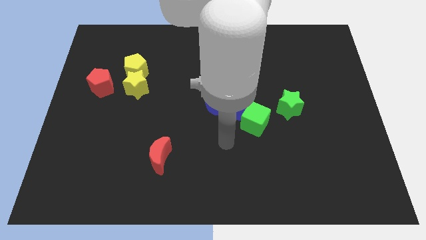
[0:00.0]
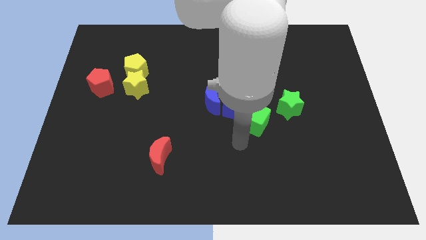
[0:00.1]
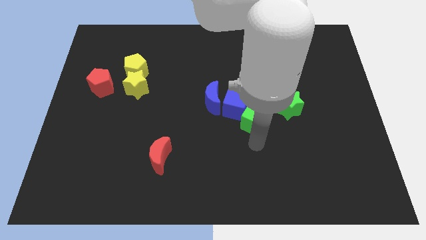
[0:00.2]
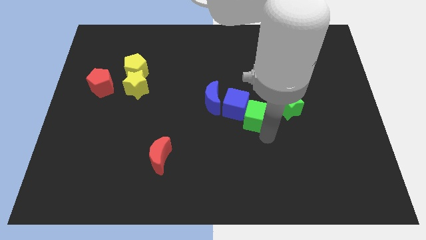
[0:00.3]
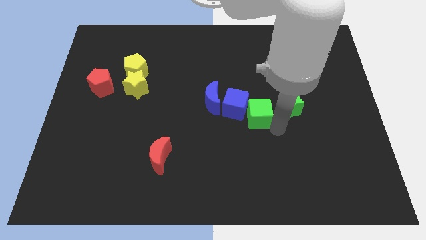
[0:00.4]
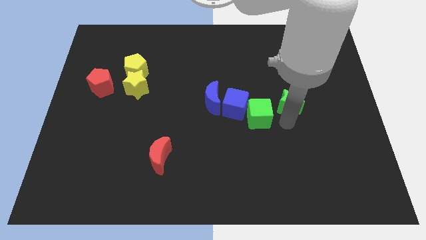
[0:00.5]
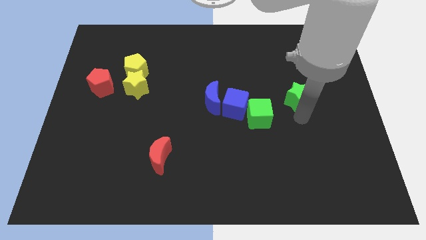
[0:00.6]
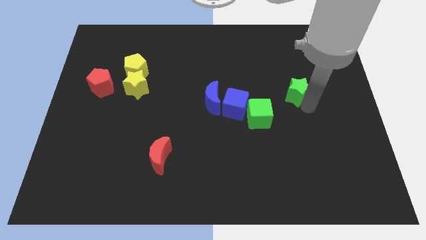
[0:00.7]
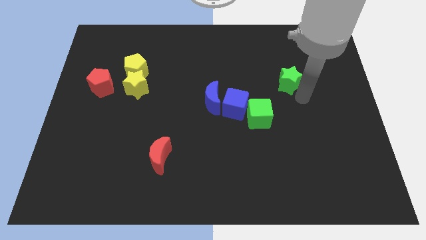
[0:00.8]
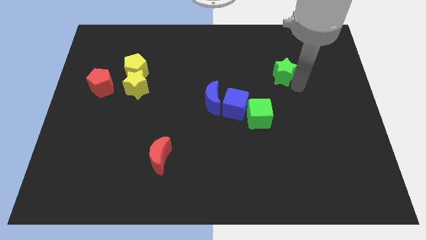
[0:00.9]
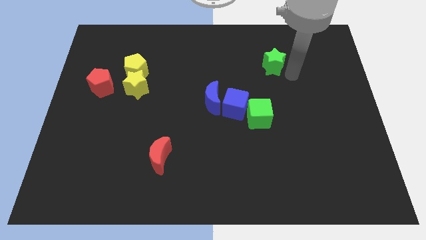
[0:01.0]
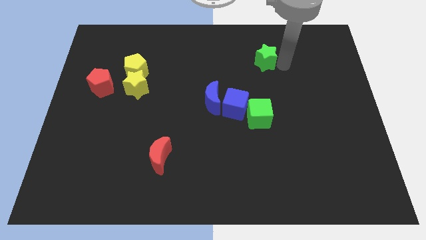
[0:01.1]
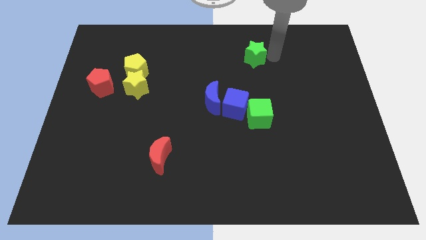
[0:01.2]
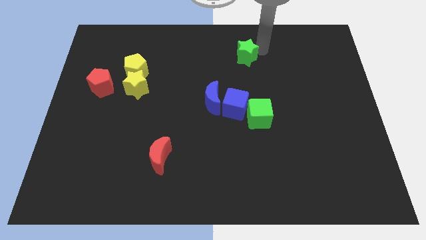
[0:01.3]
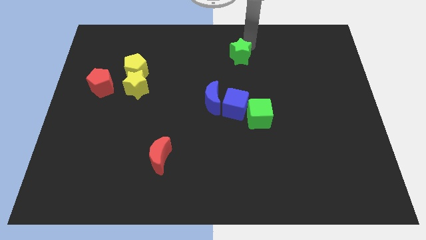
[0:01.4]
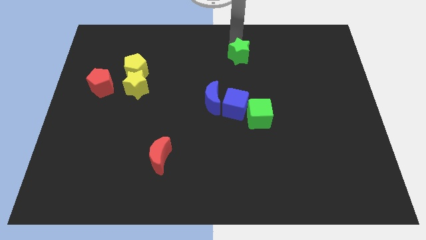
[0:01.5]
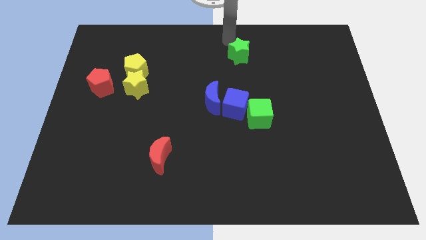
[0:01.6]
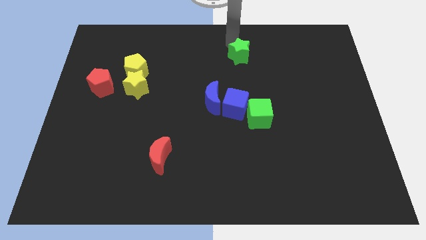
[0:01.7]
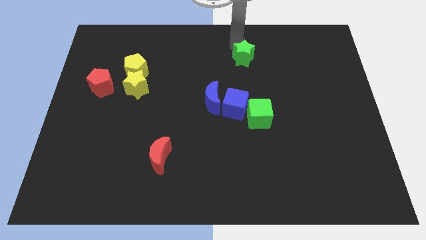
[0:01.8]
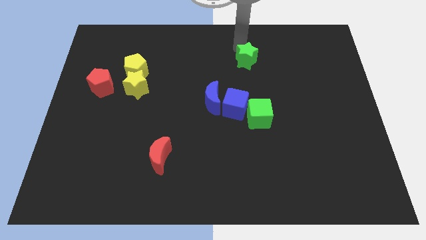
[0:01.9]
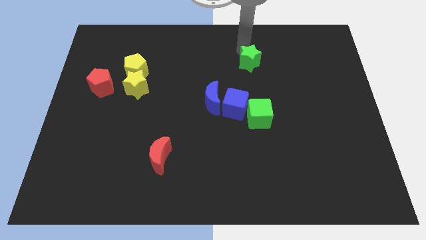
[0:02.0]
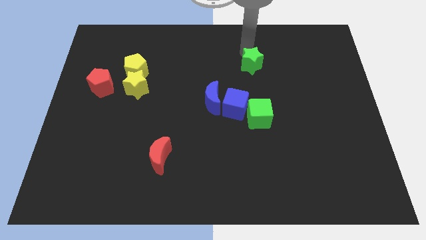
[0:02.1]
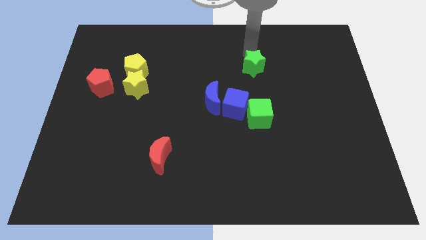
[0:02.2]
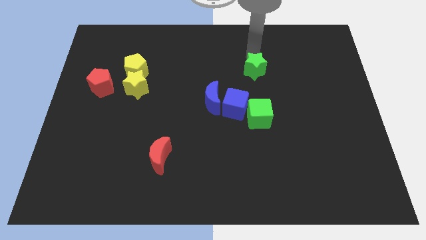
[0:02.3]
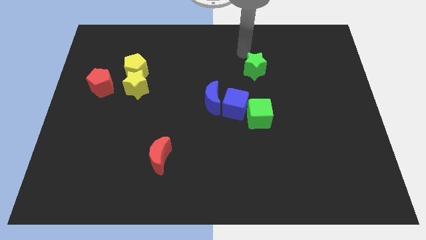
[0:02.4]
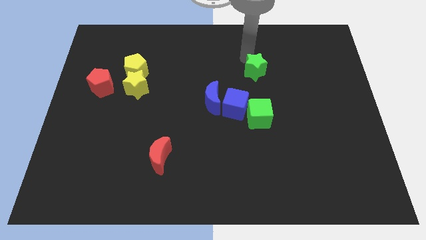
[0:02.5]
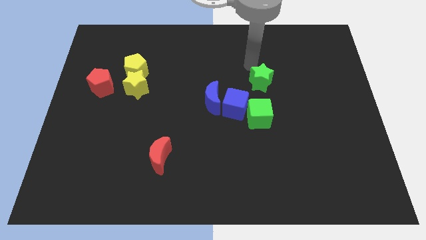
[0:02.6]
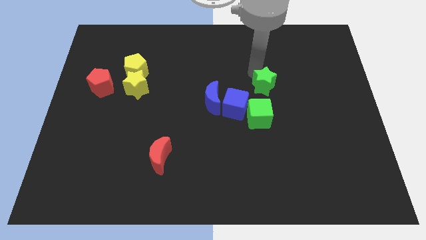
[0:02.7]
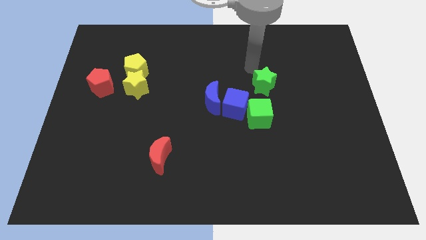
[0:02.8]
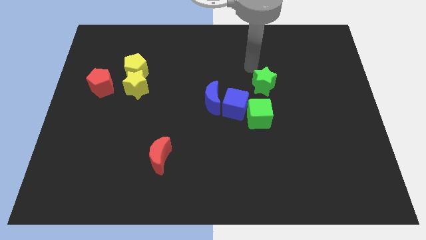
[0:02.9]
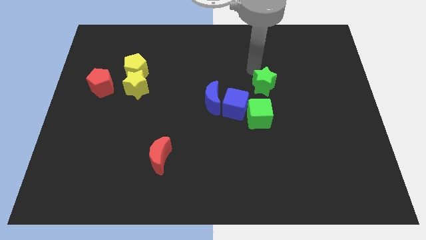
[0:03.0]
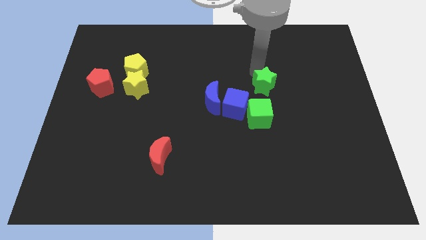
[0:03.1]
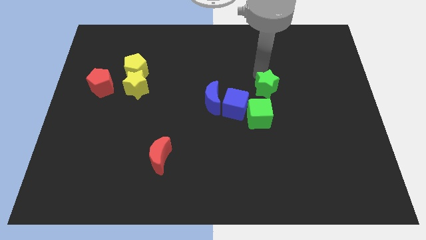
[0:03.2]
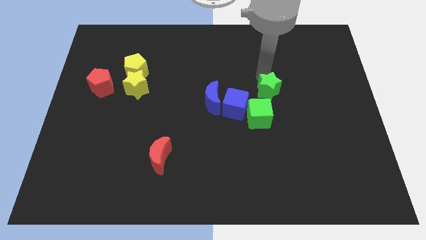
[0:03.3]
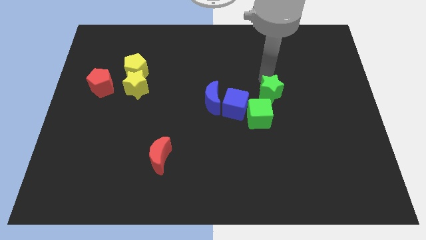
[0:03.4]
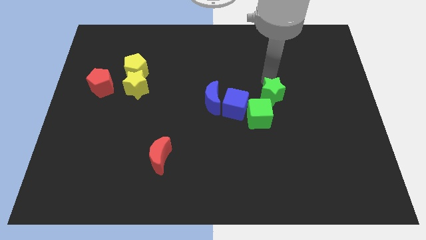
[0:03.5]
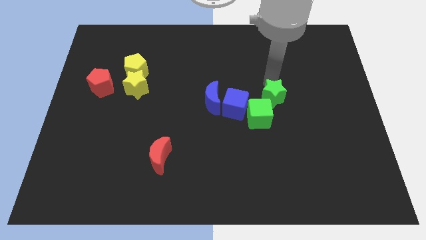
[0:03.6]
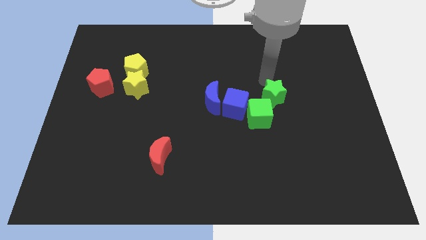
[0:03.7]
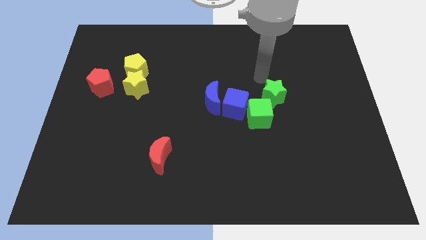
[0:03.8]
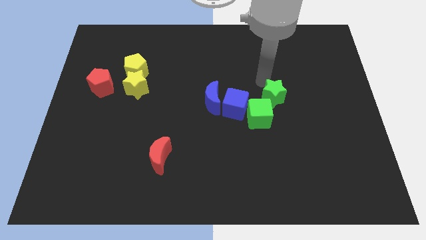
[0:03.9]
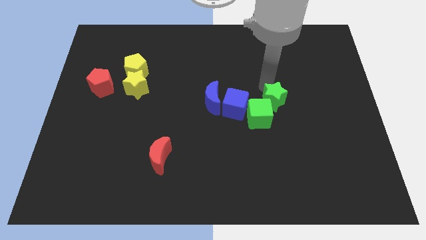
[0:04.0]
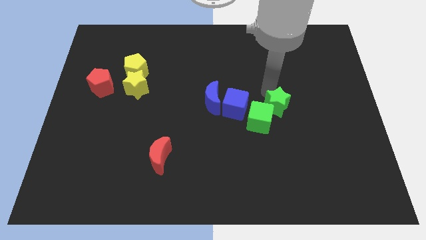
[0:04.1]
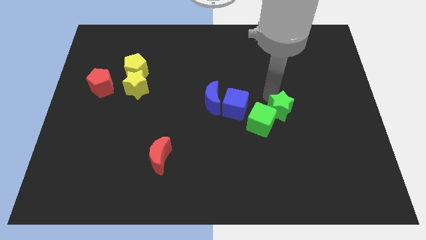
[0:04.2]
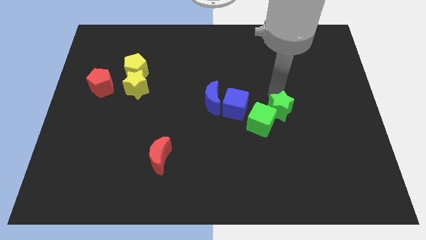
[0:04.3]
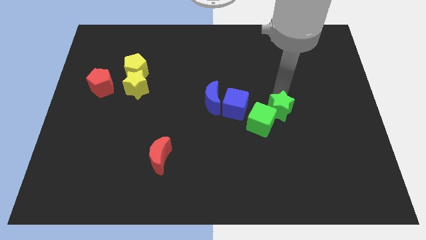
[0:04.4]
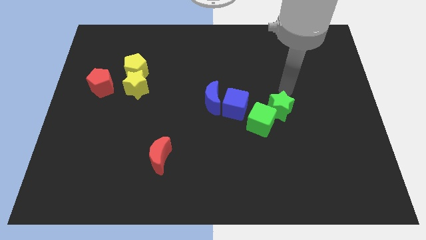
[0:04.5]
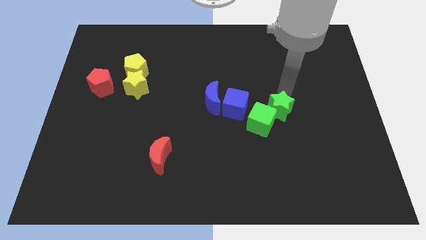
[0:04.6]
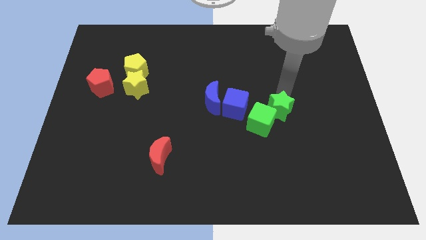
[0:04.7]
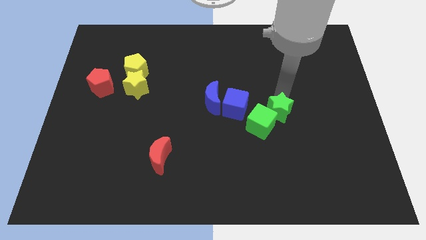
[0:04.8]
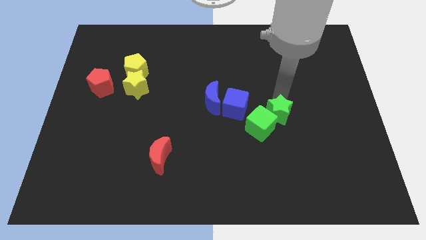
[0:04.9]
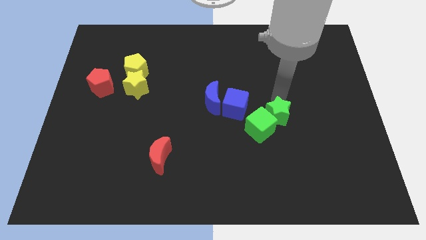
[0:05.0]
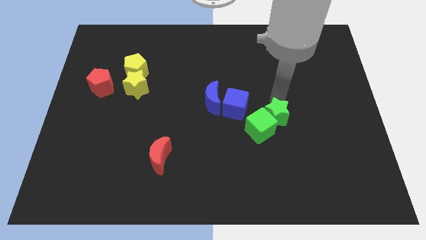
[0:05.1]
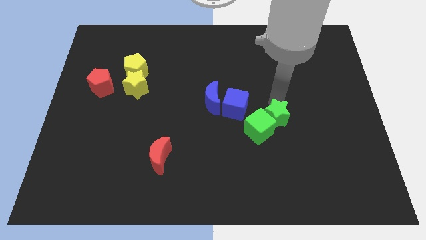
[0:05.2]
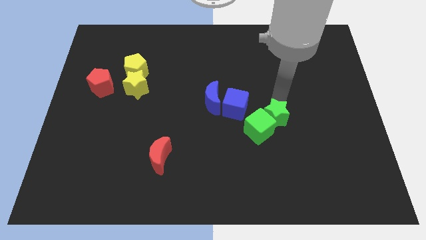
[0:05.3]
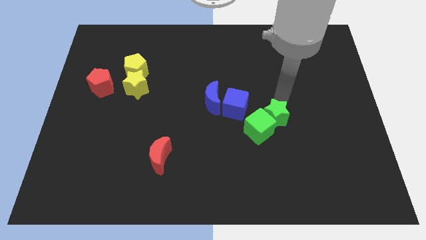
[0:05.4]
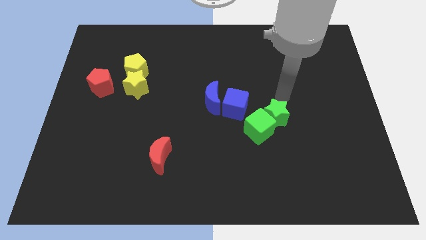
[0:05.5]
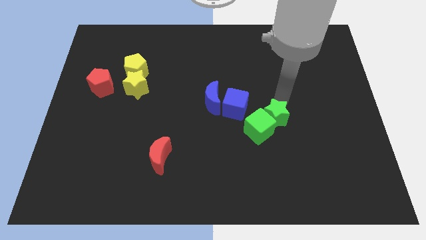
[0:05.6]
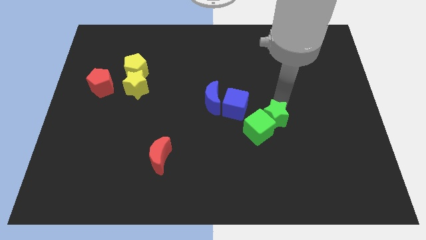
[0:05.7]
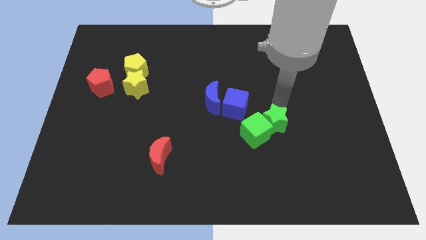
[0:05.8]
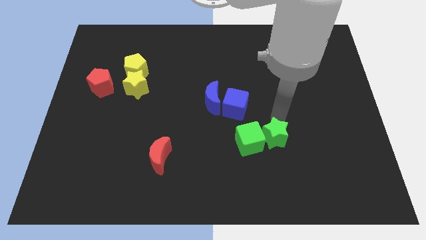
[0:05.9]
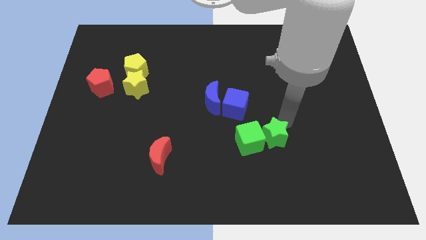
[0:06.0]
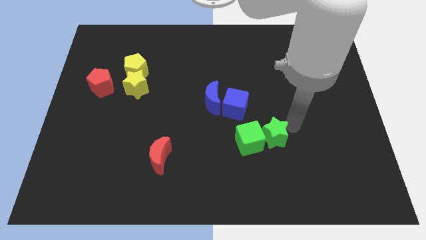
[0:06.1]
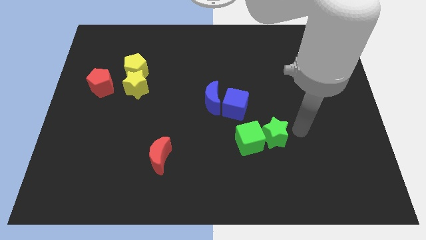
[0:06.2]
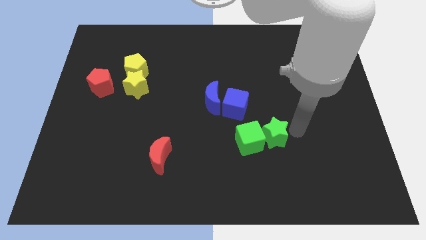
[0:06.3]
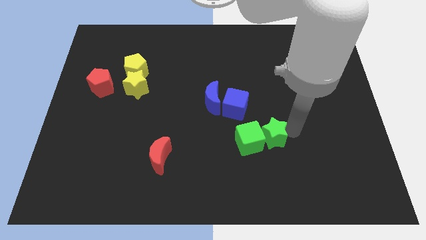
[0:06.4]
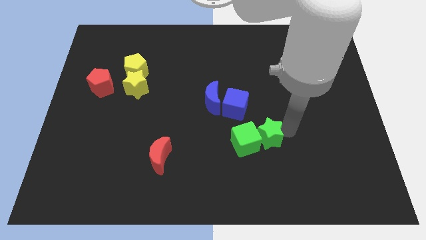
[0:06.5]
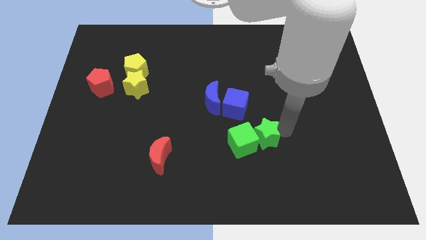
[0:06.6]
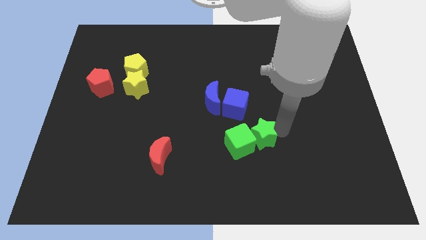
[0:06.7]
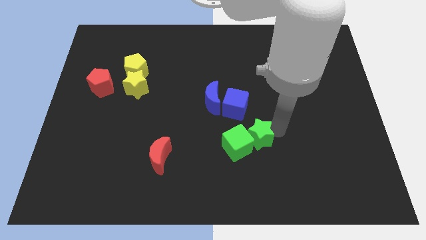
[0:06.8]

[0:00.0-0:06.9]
push the green star to the bottom of the blue cube
